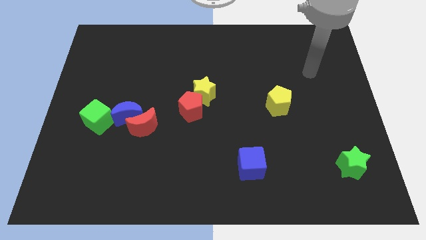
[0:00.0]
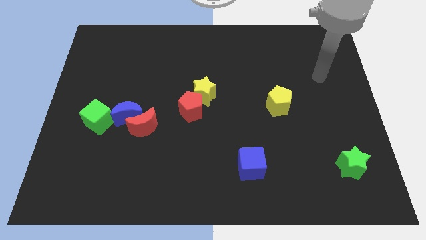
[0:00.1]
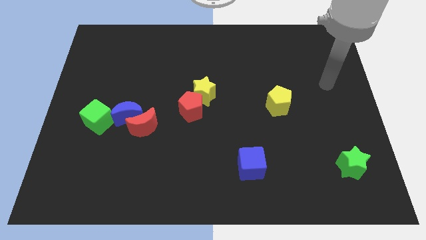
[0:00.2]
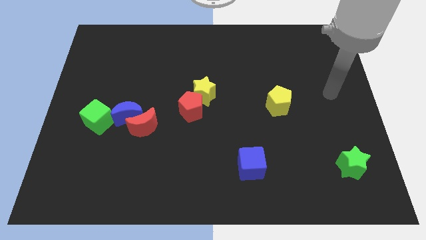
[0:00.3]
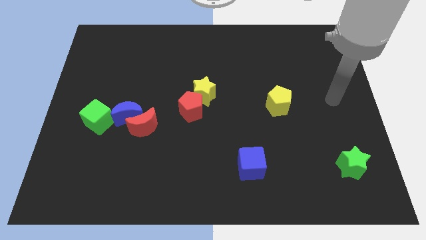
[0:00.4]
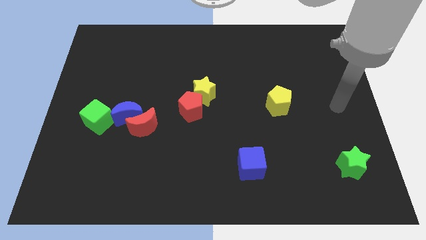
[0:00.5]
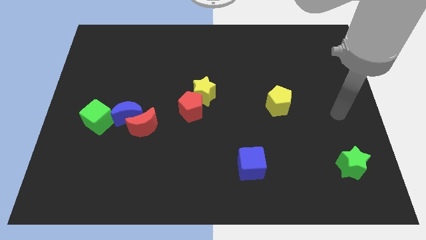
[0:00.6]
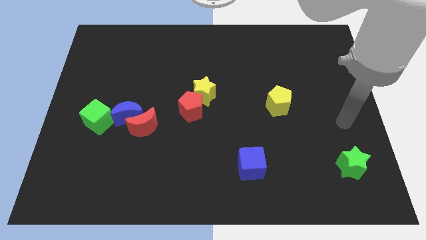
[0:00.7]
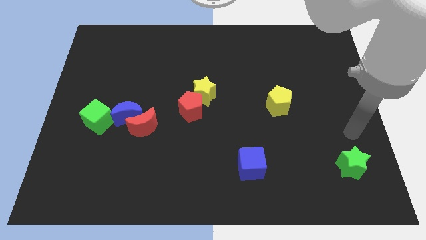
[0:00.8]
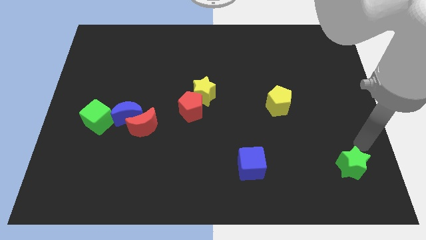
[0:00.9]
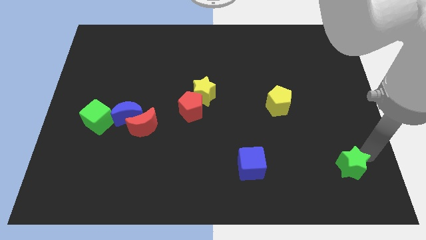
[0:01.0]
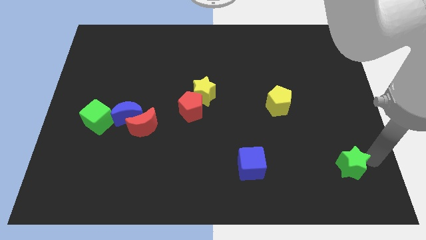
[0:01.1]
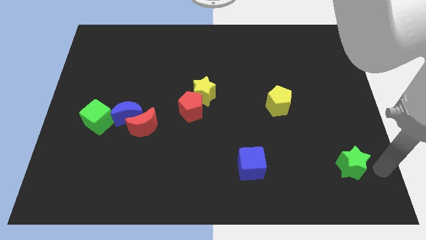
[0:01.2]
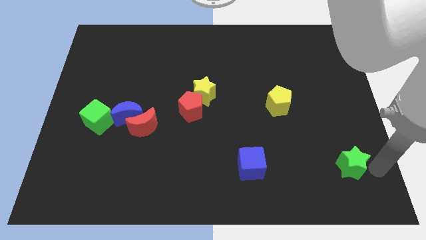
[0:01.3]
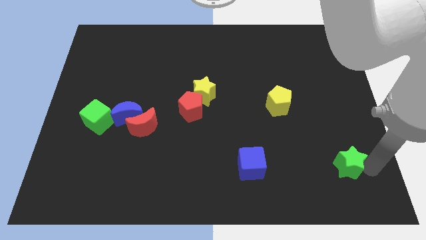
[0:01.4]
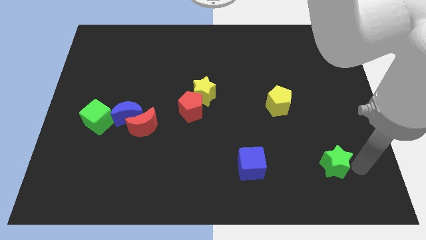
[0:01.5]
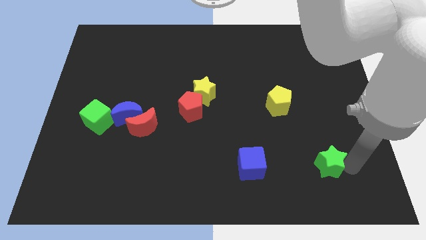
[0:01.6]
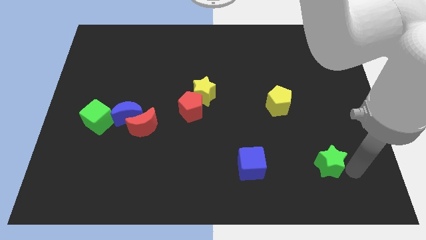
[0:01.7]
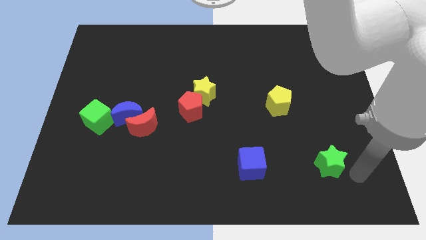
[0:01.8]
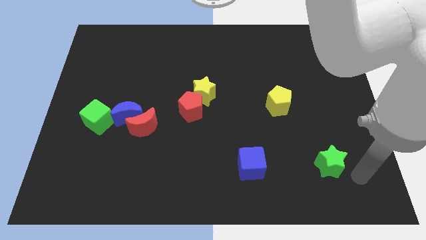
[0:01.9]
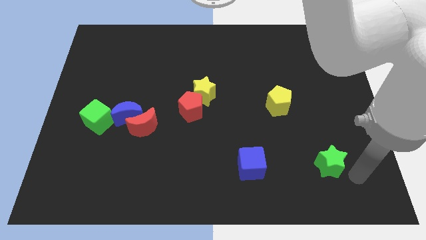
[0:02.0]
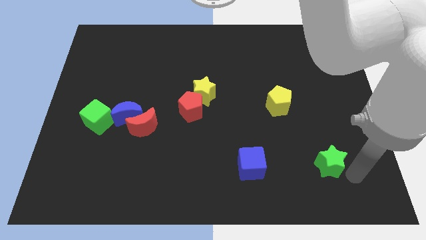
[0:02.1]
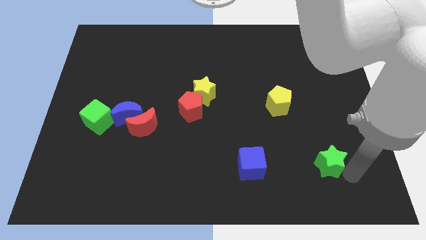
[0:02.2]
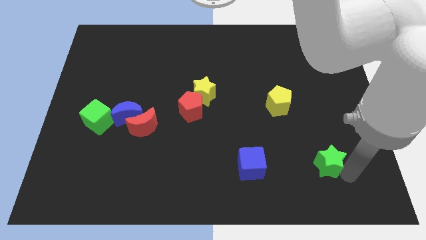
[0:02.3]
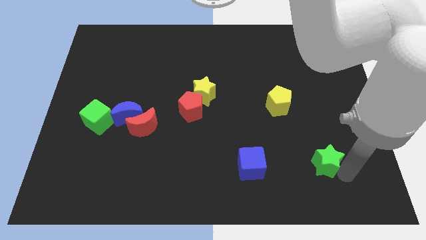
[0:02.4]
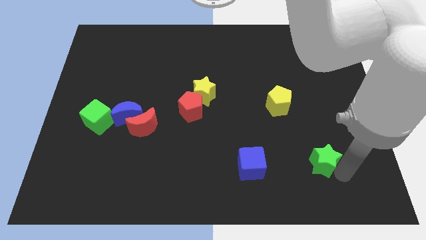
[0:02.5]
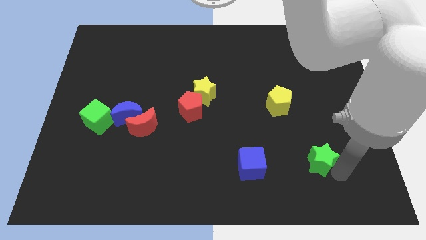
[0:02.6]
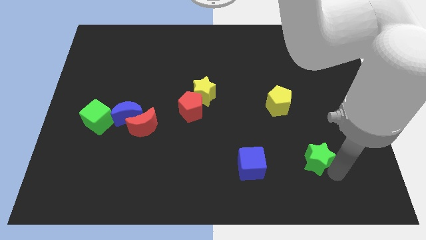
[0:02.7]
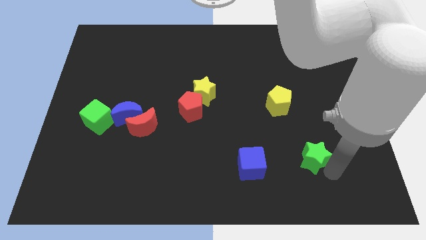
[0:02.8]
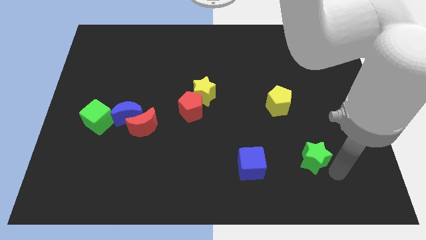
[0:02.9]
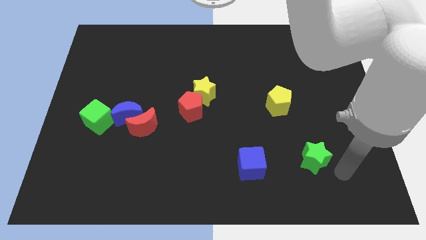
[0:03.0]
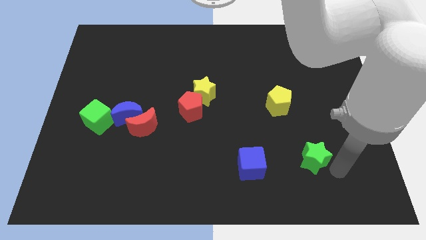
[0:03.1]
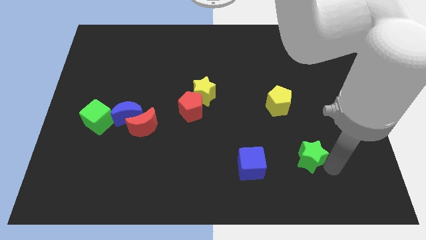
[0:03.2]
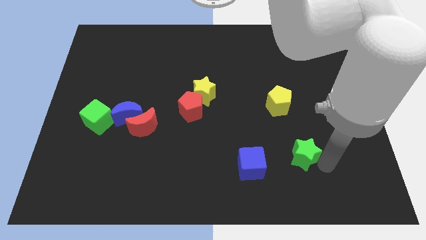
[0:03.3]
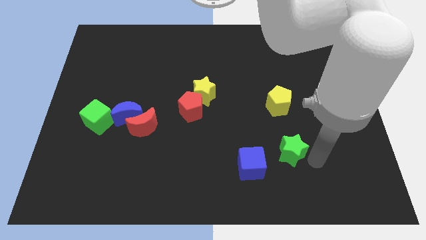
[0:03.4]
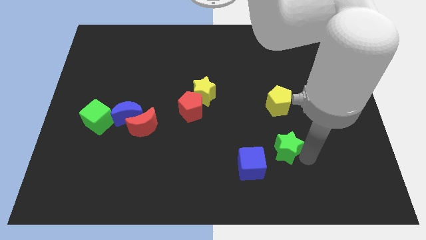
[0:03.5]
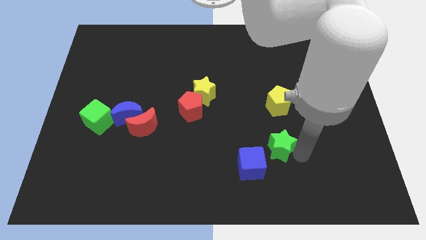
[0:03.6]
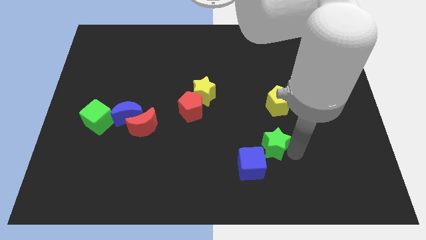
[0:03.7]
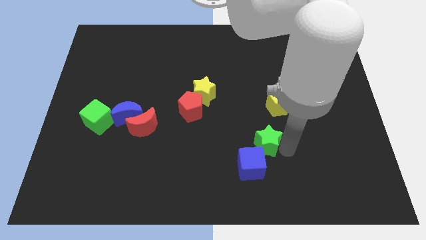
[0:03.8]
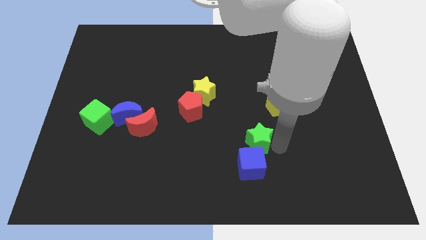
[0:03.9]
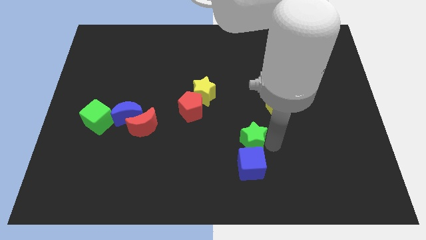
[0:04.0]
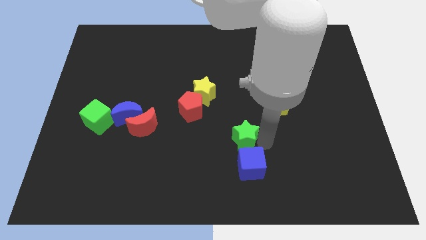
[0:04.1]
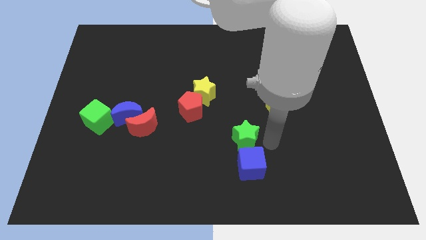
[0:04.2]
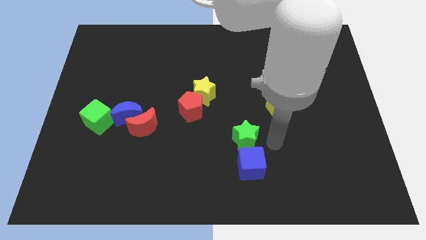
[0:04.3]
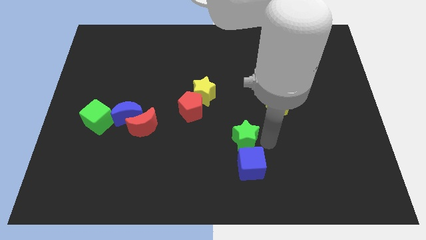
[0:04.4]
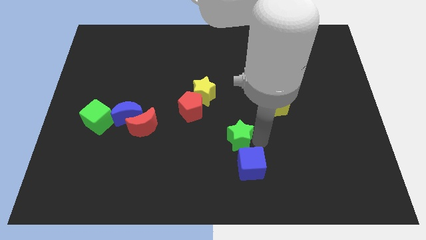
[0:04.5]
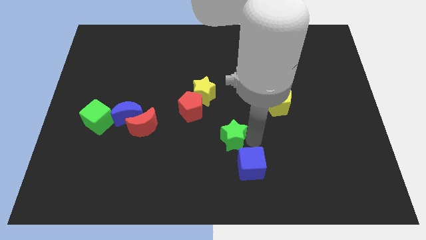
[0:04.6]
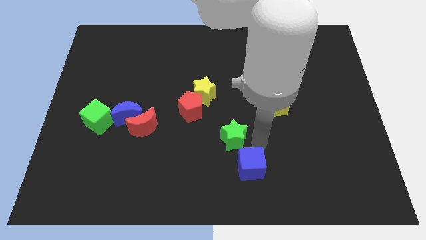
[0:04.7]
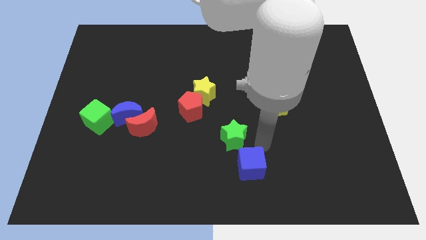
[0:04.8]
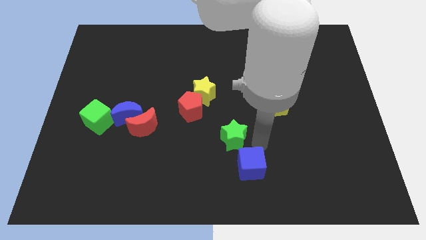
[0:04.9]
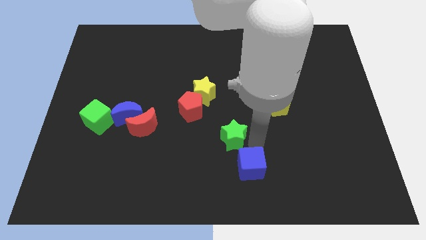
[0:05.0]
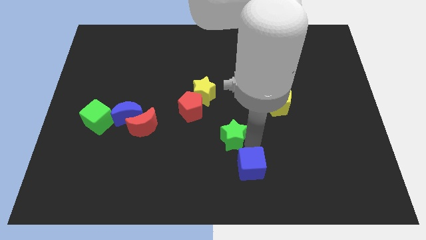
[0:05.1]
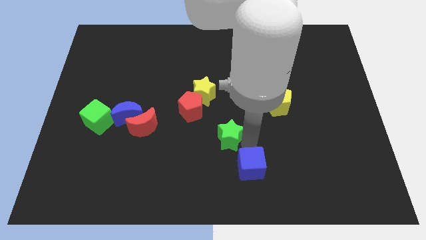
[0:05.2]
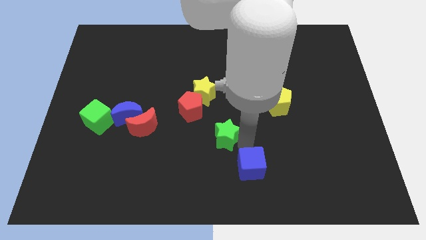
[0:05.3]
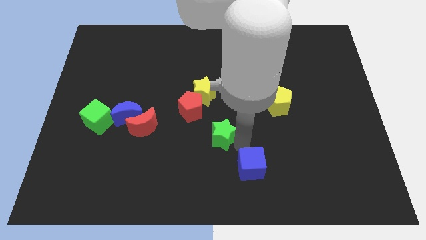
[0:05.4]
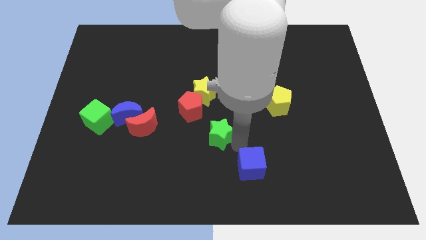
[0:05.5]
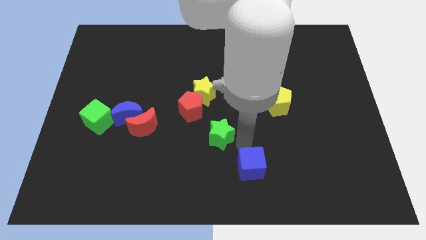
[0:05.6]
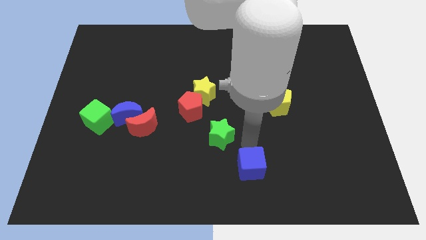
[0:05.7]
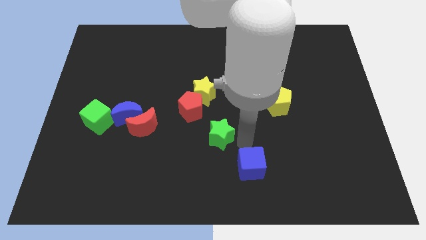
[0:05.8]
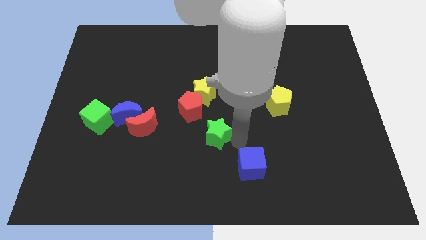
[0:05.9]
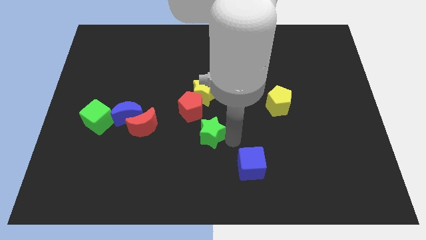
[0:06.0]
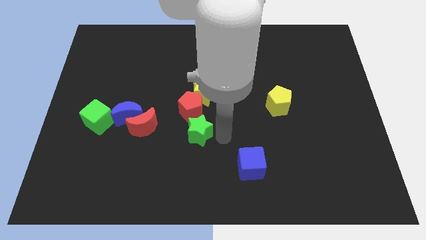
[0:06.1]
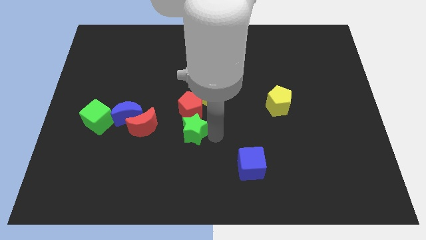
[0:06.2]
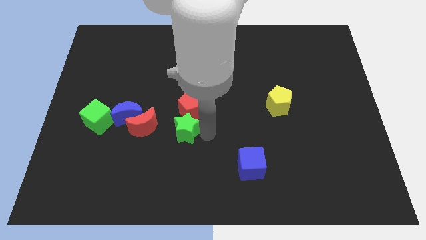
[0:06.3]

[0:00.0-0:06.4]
slide the green star to the bottom left side of the red pentagon

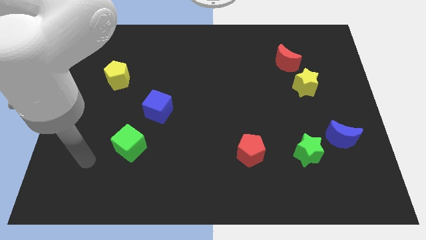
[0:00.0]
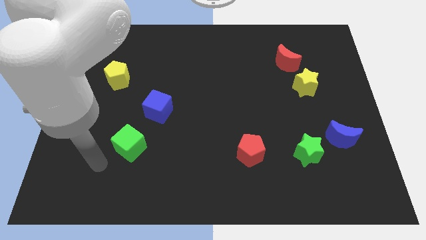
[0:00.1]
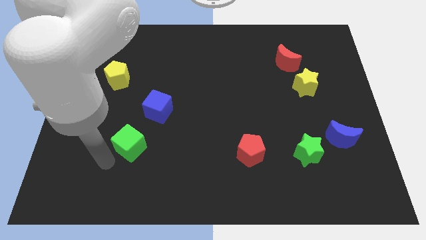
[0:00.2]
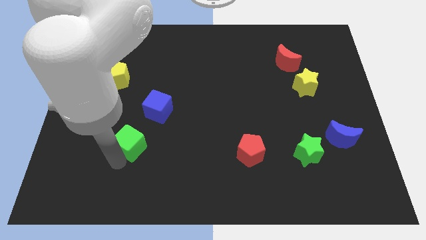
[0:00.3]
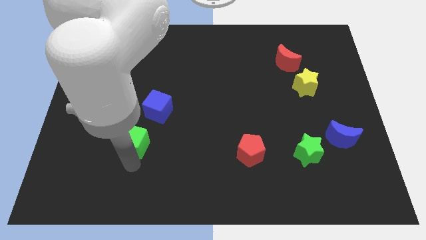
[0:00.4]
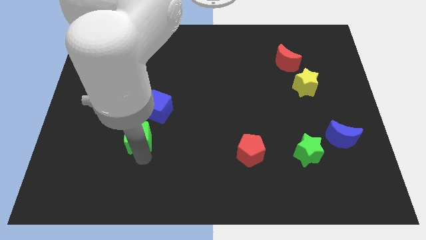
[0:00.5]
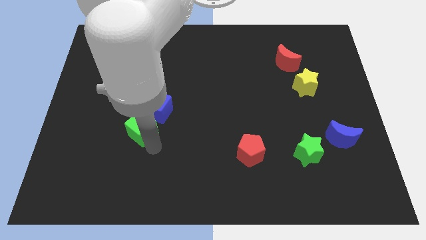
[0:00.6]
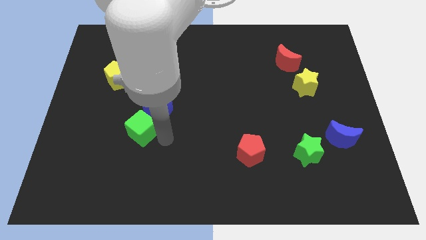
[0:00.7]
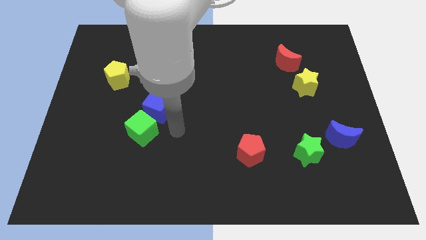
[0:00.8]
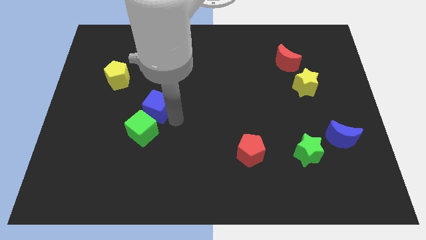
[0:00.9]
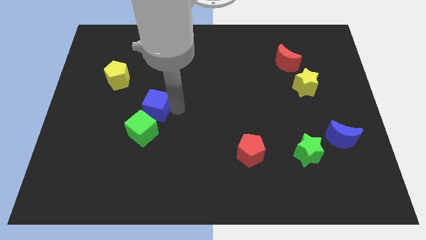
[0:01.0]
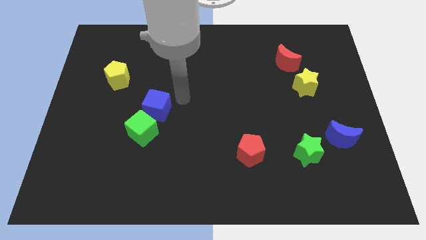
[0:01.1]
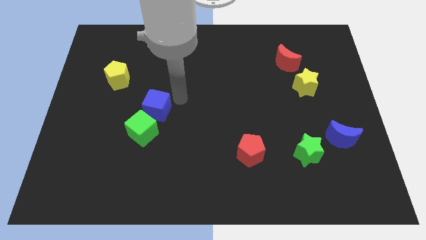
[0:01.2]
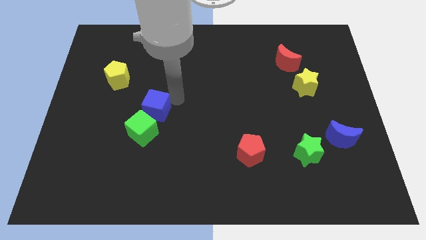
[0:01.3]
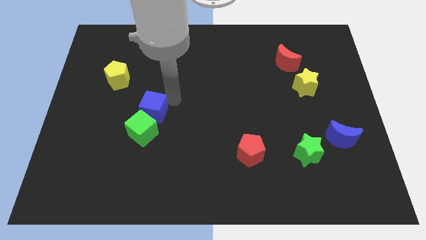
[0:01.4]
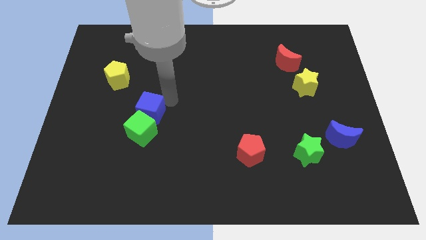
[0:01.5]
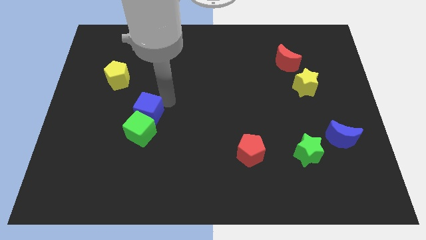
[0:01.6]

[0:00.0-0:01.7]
slide the blue cube to the top left of the green cube

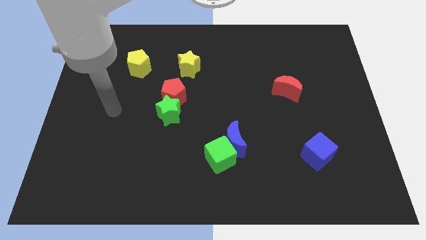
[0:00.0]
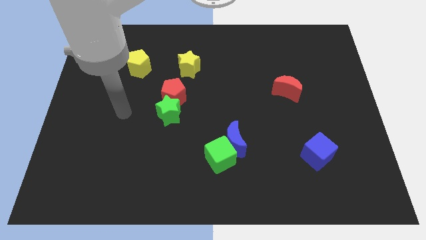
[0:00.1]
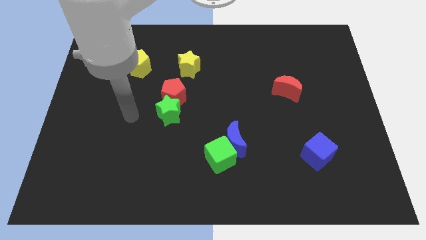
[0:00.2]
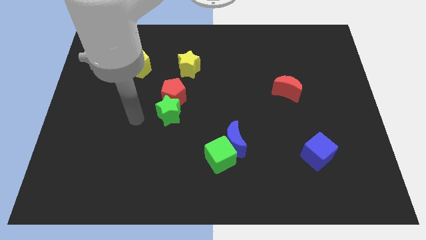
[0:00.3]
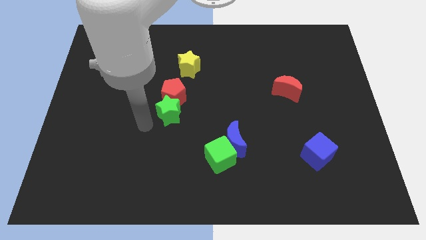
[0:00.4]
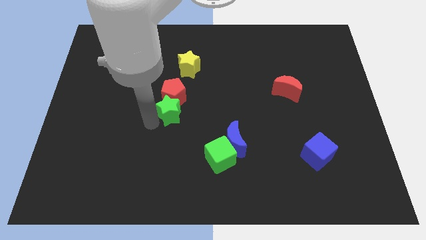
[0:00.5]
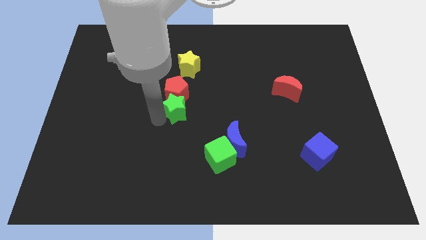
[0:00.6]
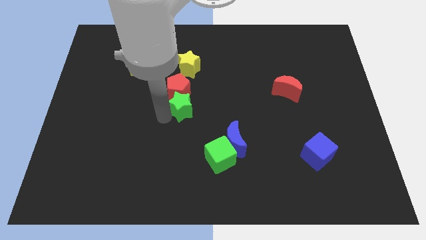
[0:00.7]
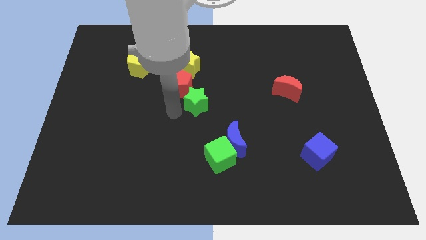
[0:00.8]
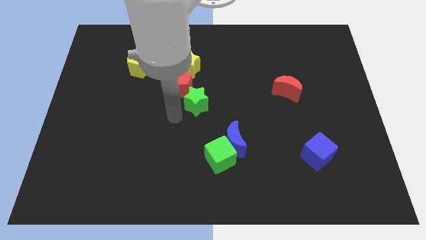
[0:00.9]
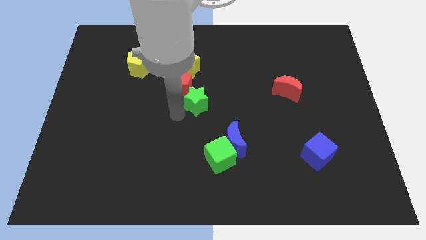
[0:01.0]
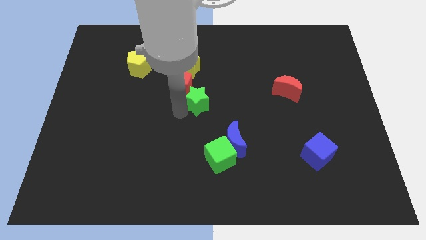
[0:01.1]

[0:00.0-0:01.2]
push the green star to the right side of the red pentagon
